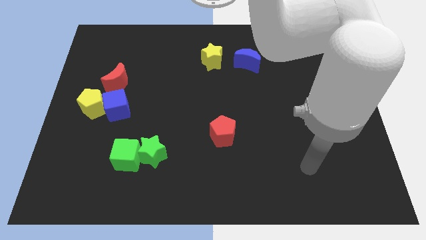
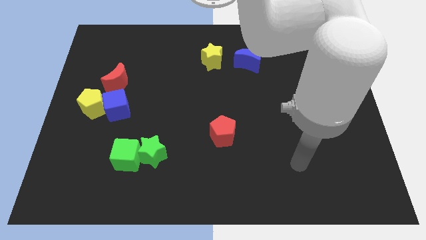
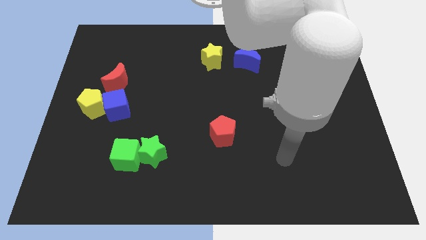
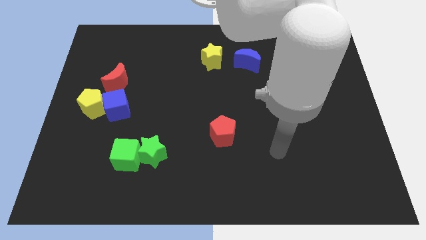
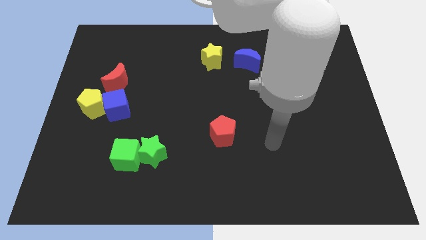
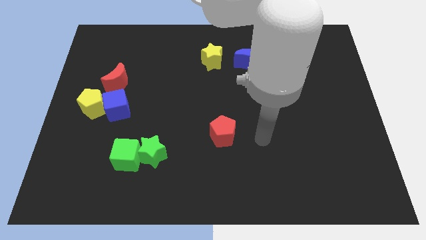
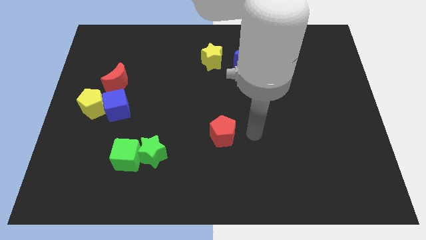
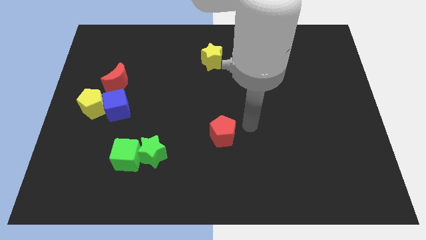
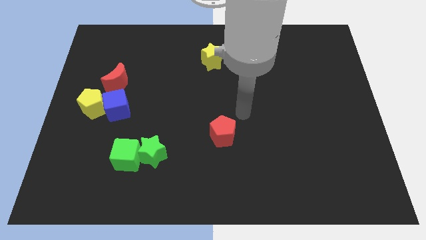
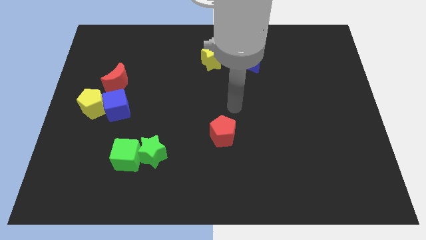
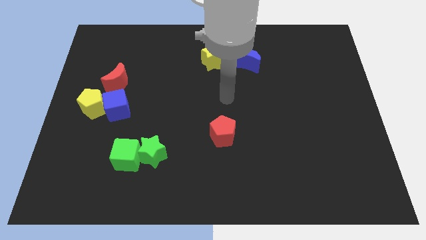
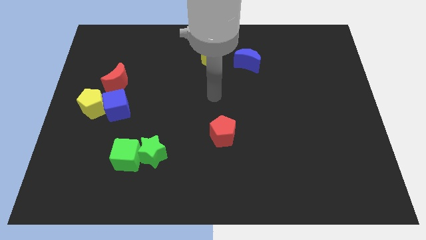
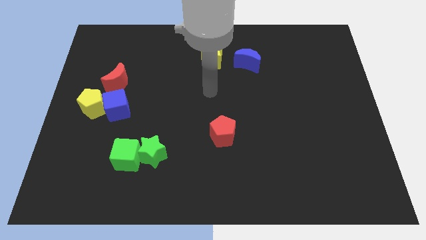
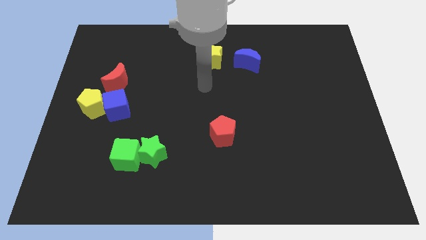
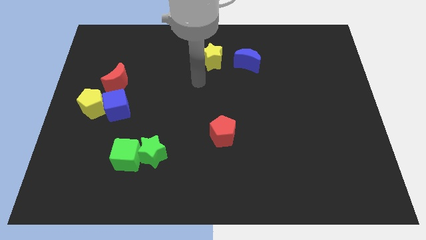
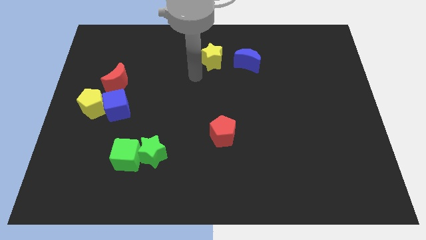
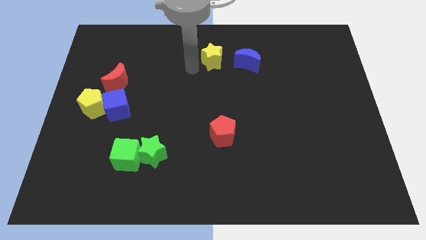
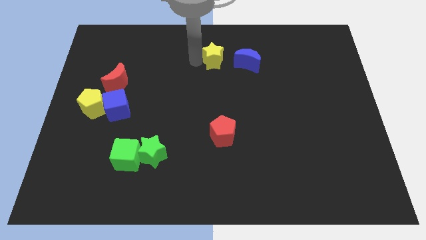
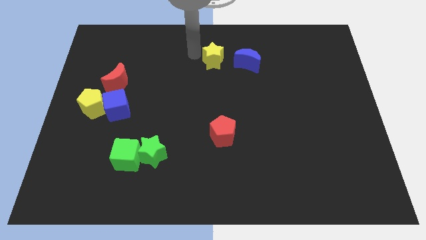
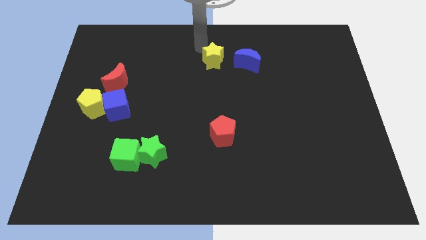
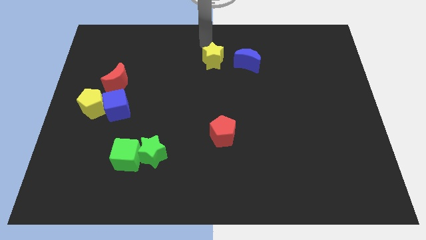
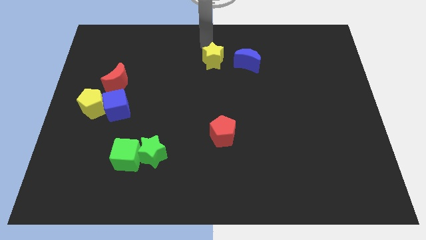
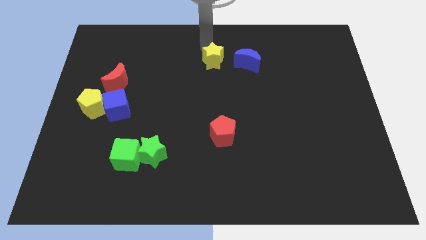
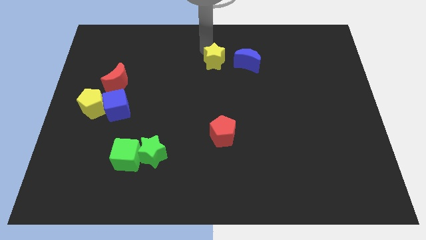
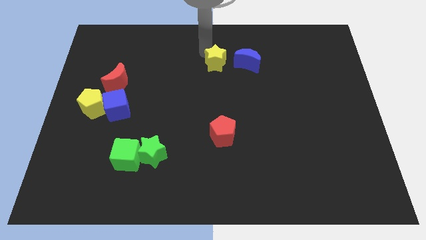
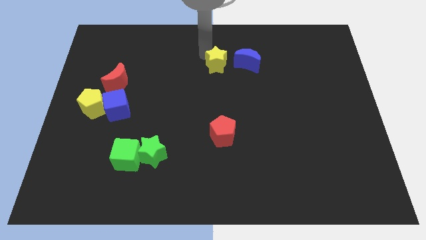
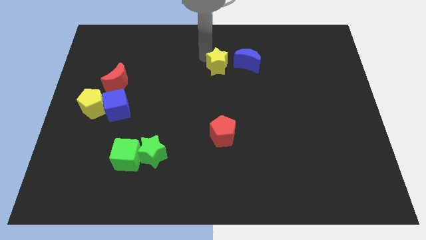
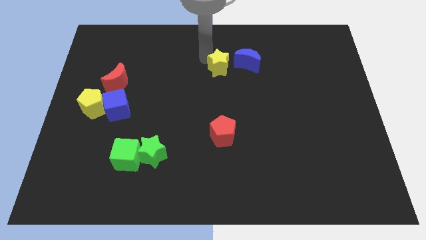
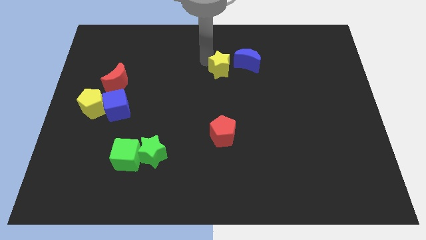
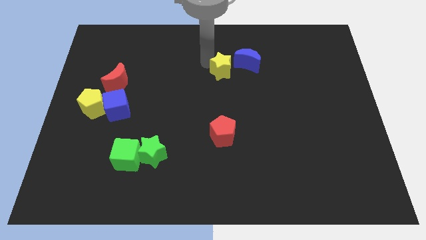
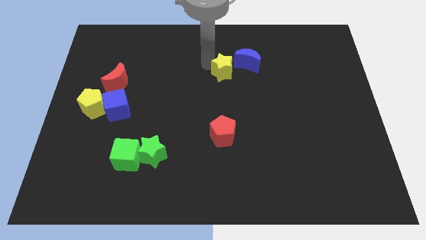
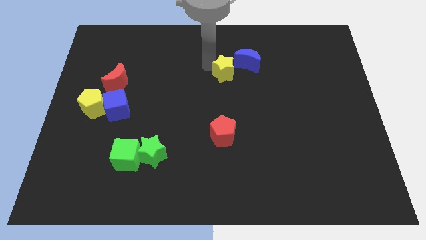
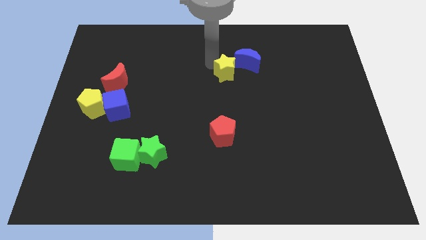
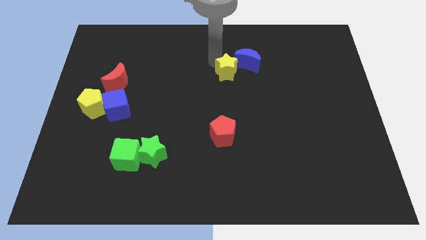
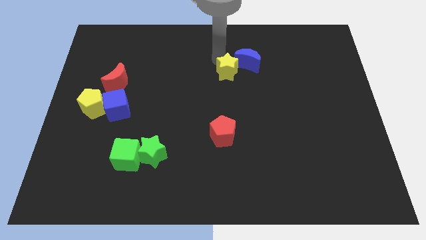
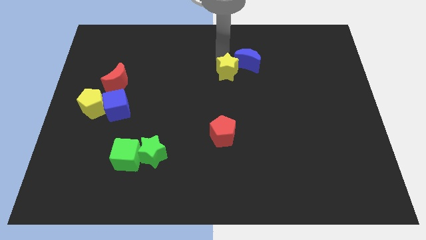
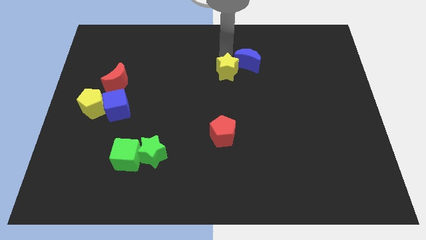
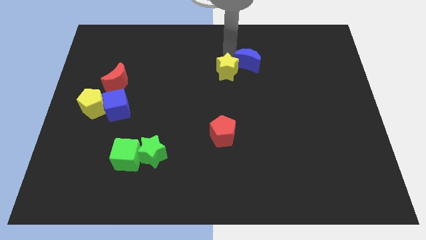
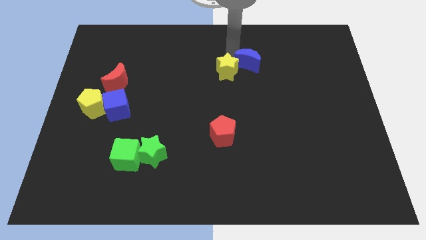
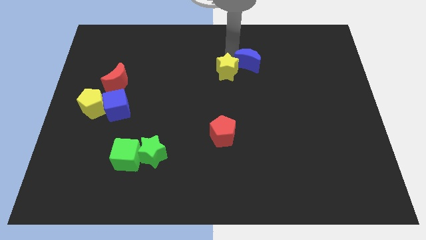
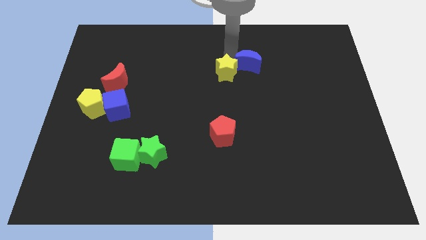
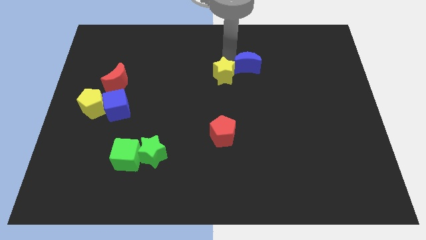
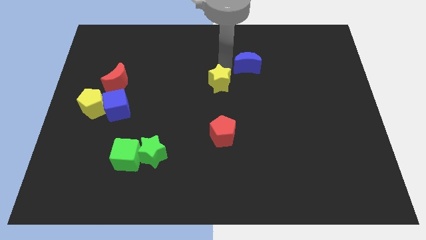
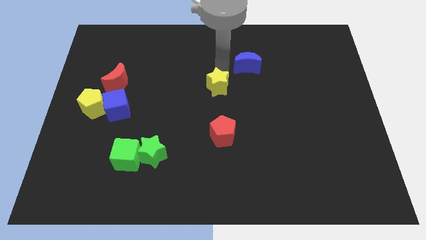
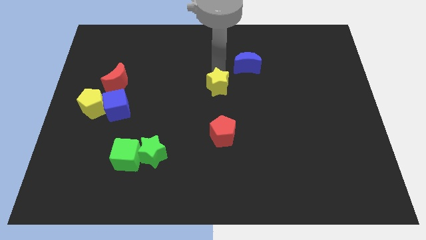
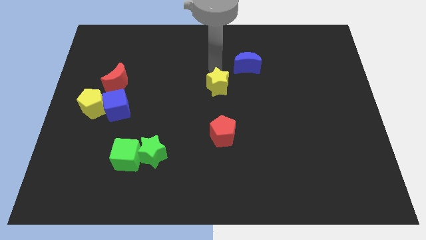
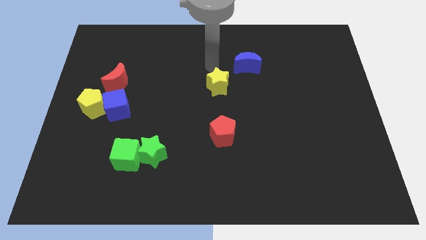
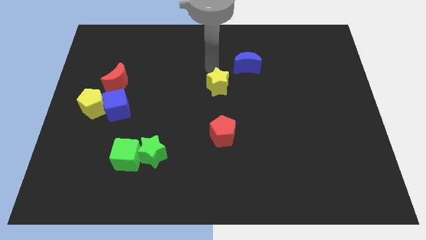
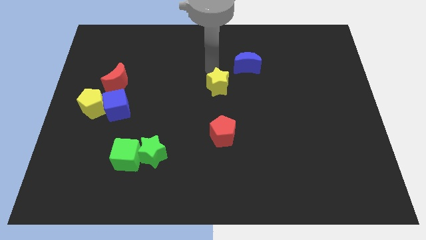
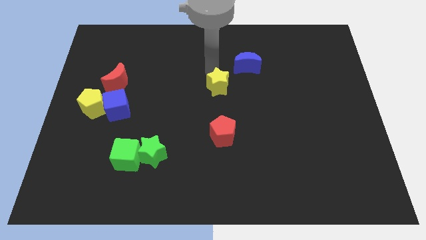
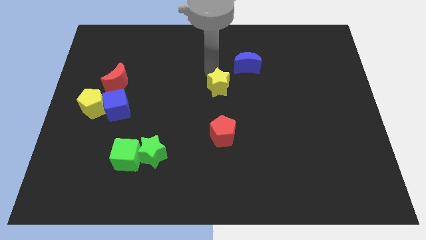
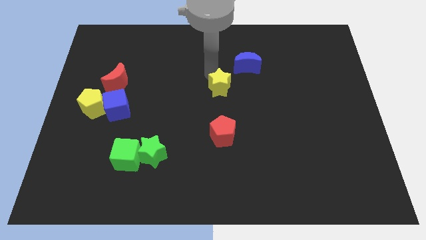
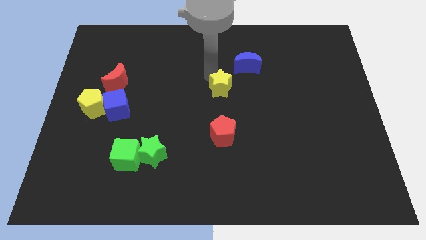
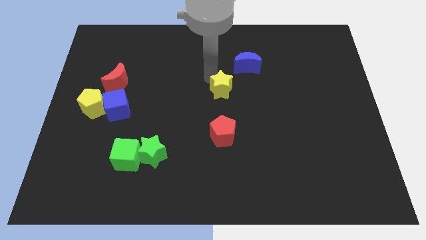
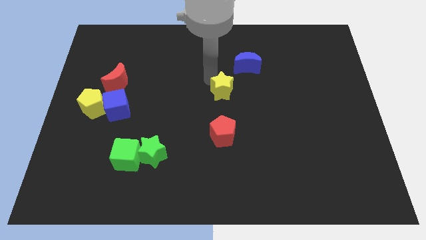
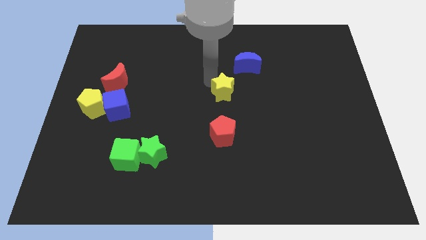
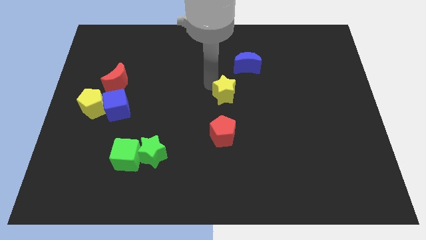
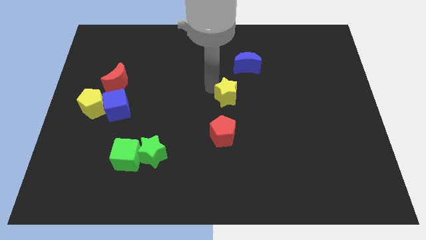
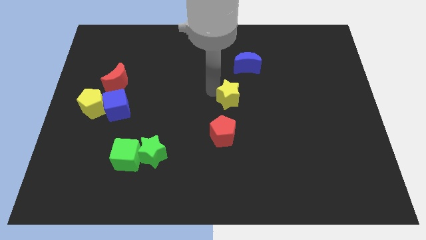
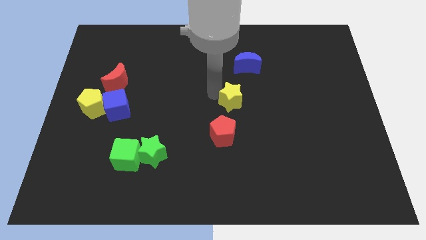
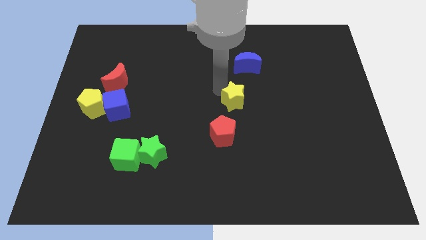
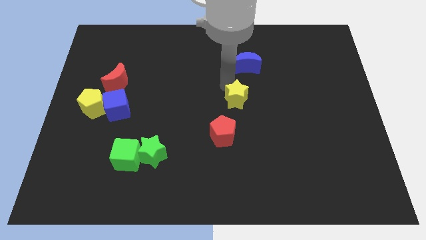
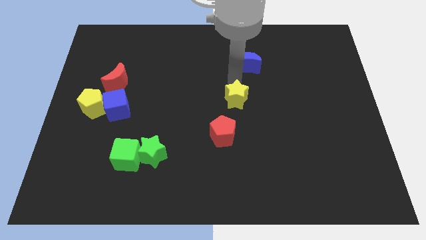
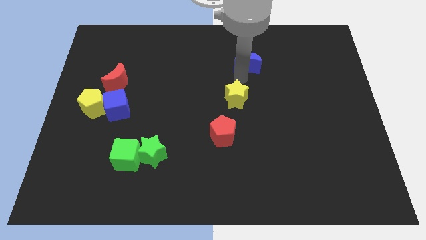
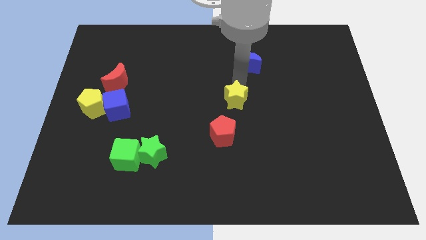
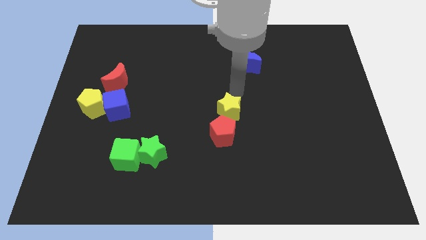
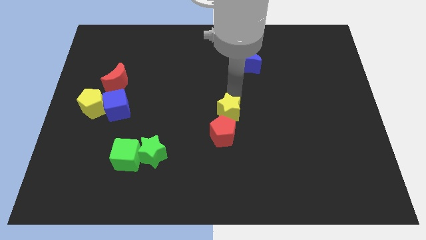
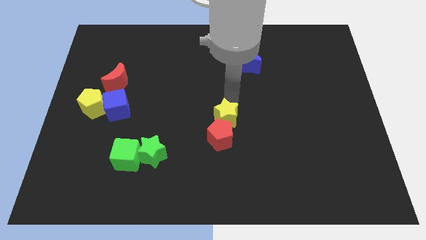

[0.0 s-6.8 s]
slide the yellow star next to the red pentagon
